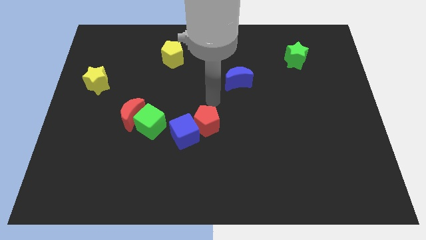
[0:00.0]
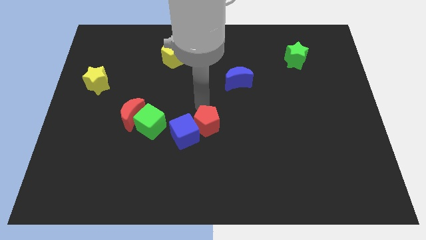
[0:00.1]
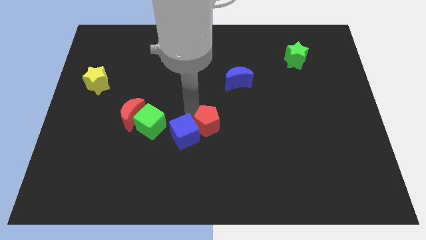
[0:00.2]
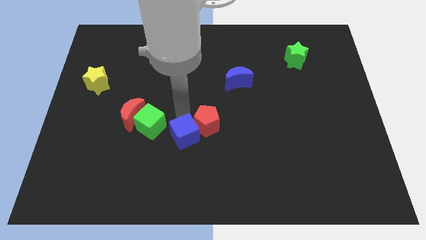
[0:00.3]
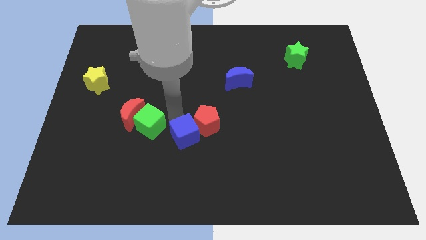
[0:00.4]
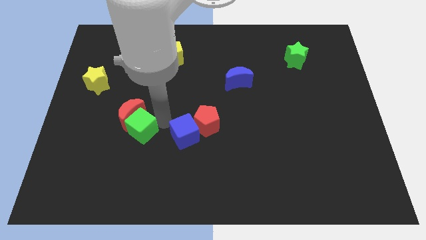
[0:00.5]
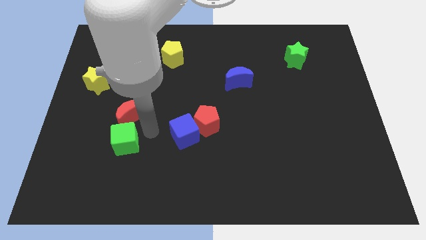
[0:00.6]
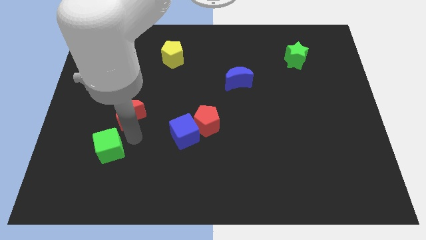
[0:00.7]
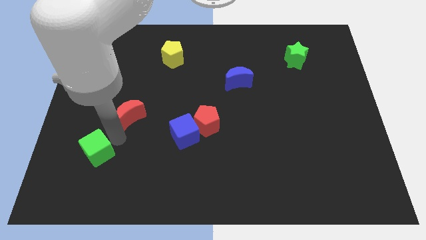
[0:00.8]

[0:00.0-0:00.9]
separate the red moon from the green cube

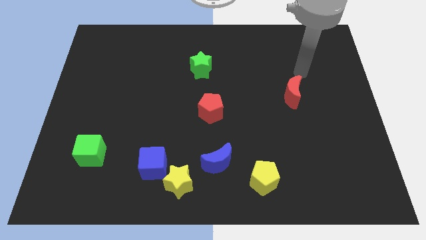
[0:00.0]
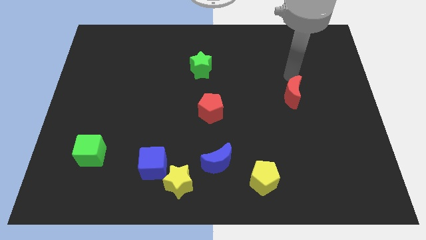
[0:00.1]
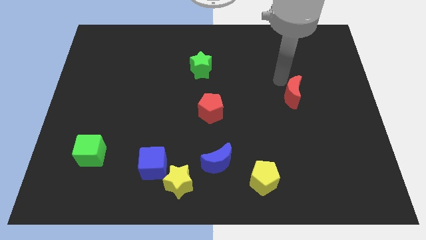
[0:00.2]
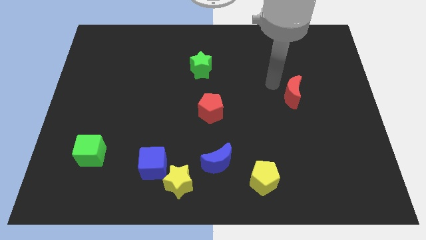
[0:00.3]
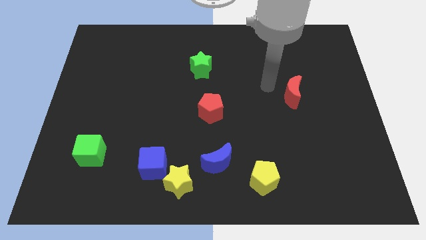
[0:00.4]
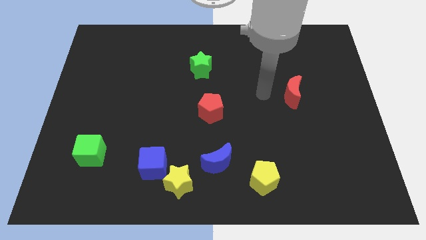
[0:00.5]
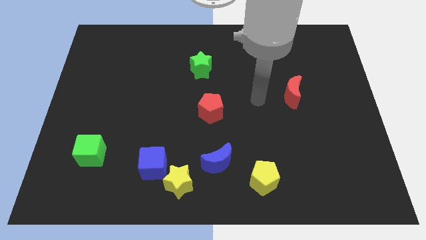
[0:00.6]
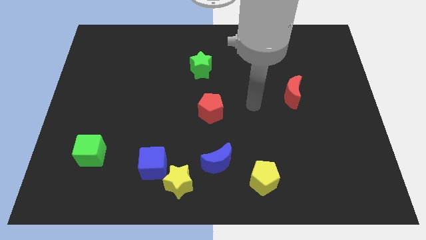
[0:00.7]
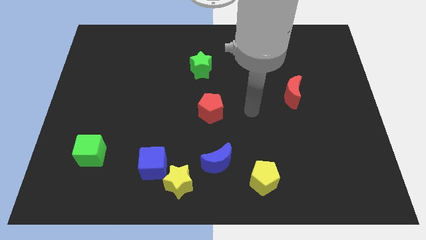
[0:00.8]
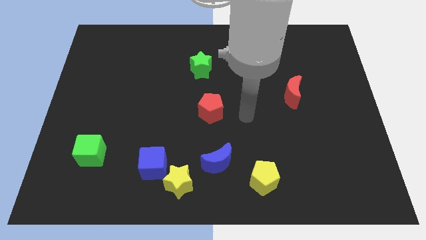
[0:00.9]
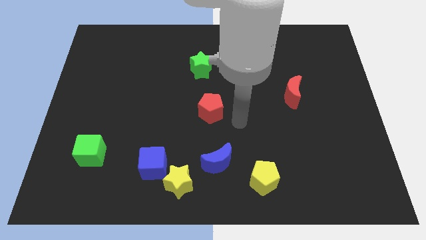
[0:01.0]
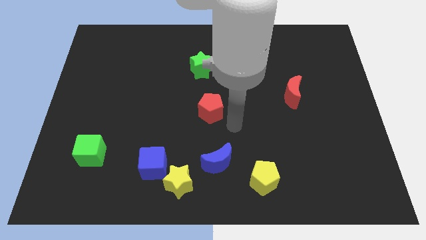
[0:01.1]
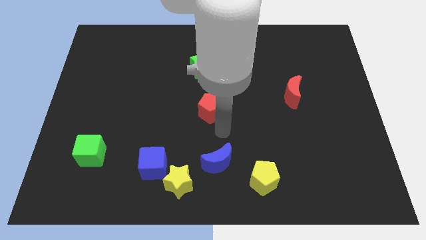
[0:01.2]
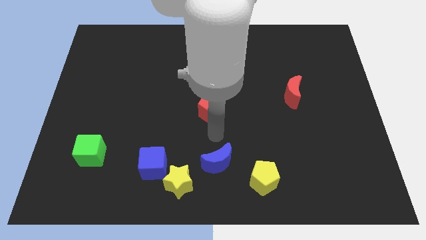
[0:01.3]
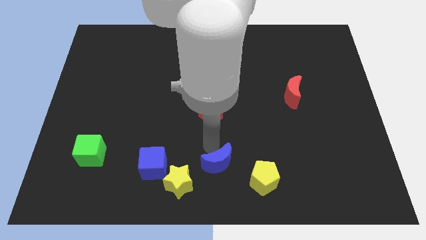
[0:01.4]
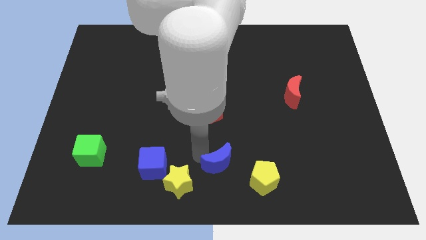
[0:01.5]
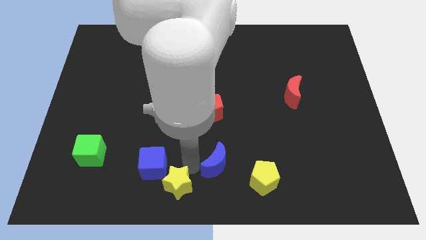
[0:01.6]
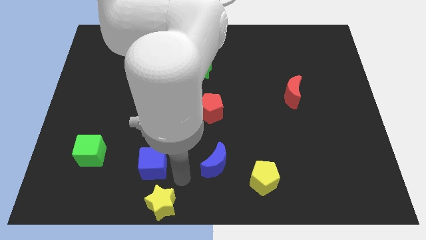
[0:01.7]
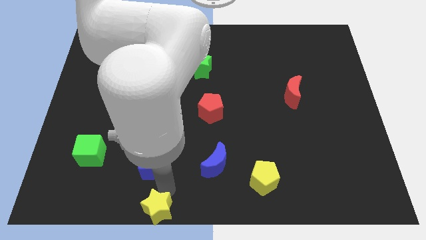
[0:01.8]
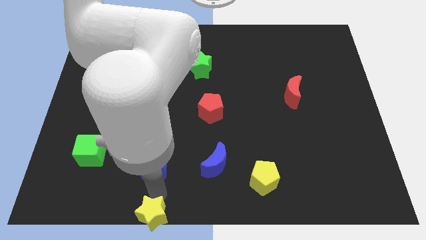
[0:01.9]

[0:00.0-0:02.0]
move the blue cube away from the yellow star

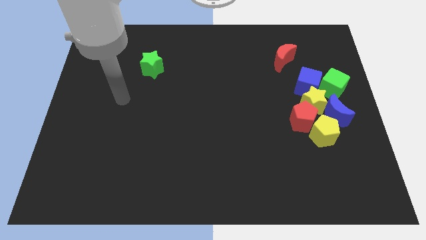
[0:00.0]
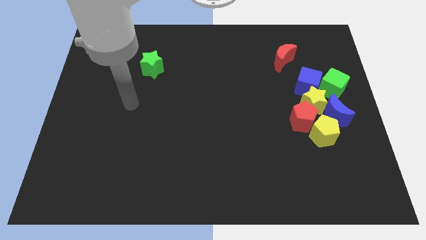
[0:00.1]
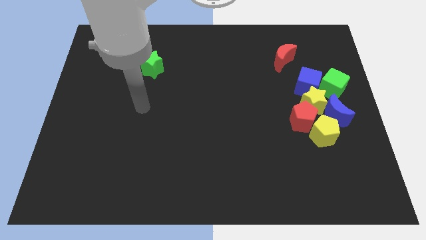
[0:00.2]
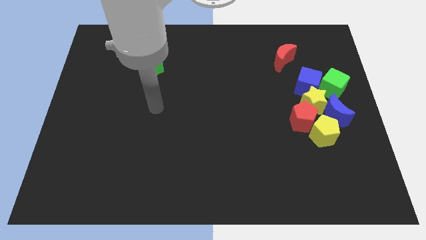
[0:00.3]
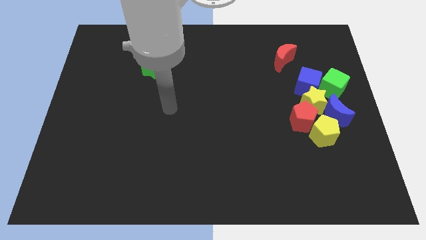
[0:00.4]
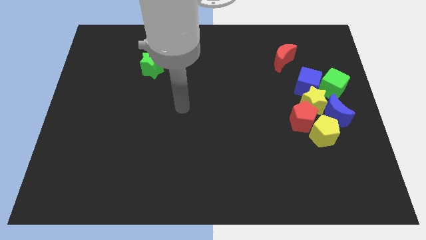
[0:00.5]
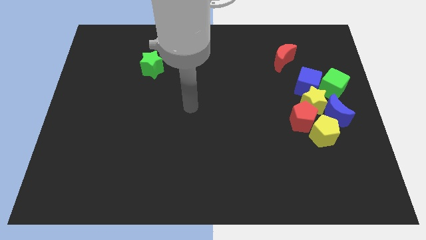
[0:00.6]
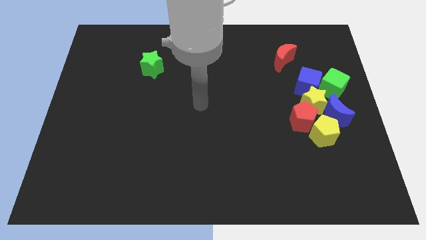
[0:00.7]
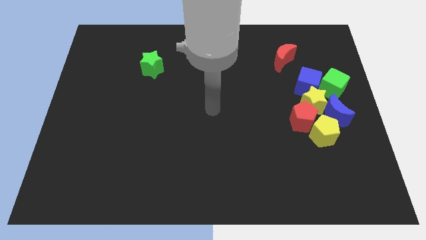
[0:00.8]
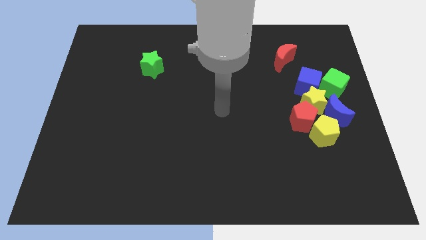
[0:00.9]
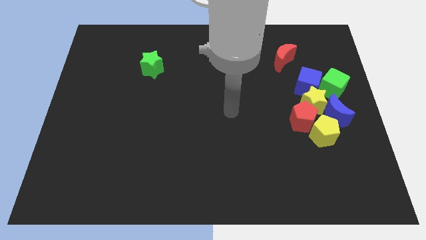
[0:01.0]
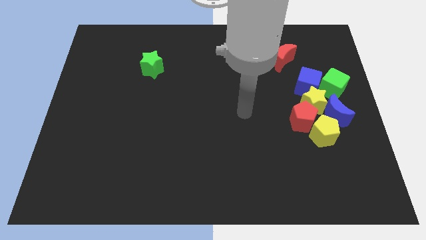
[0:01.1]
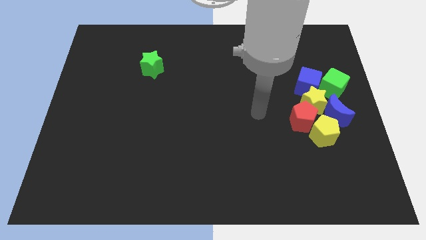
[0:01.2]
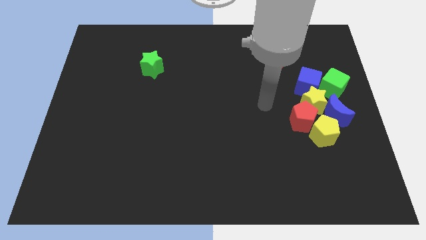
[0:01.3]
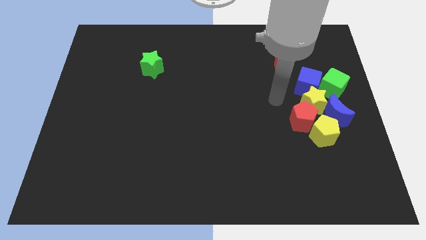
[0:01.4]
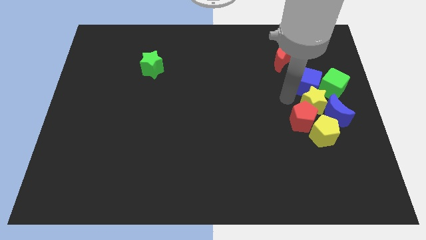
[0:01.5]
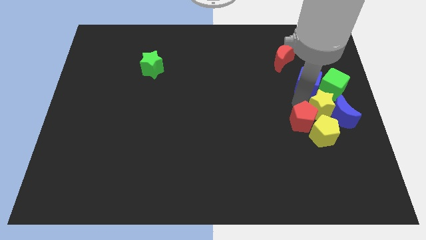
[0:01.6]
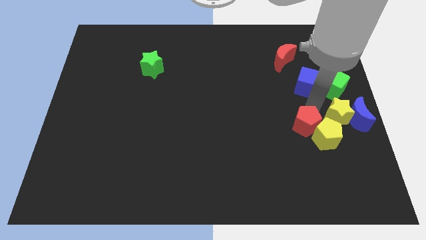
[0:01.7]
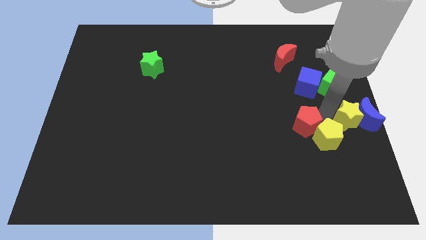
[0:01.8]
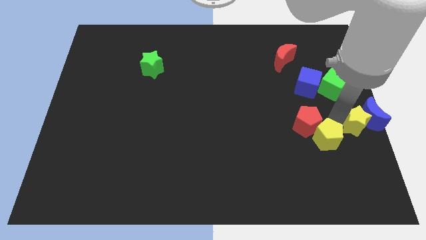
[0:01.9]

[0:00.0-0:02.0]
pull the red pentagon apart from the yellow star, yellow pentagon, and blue moon

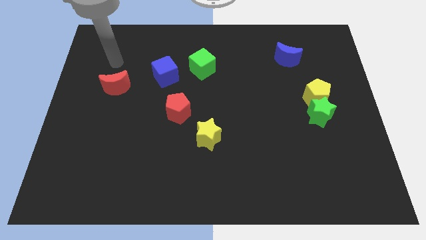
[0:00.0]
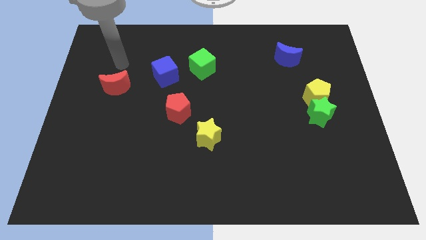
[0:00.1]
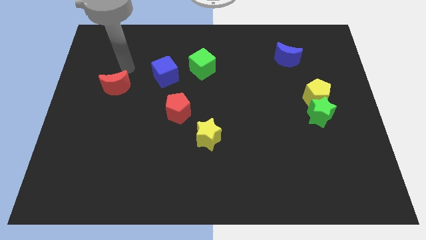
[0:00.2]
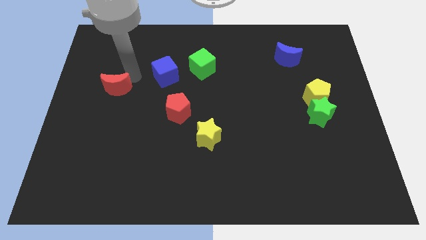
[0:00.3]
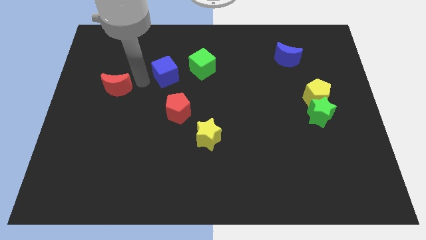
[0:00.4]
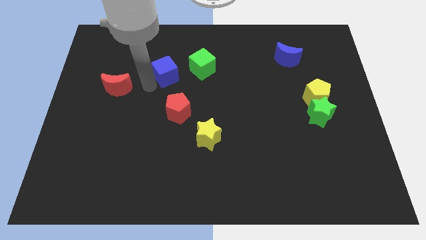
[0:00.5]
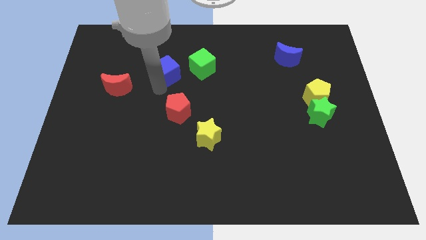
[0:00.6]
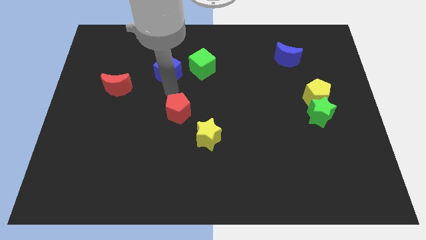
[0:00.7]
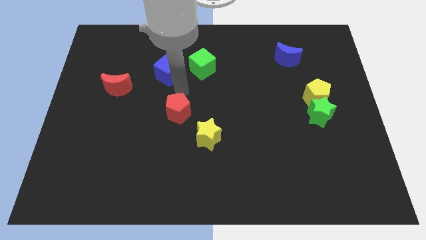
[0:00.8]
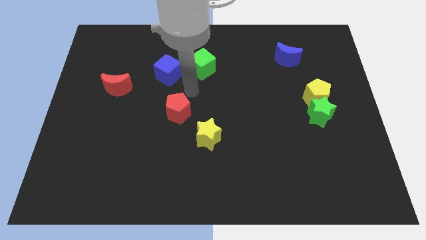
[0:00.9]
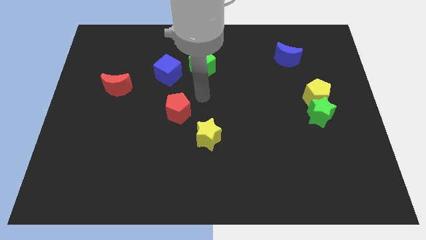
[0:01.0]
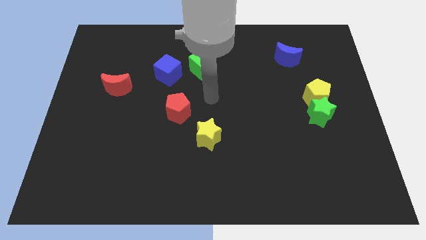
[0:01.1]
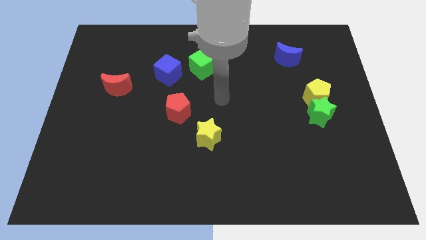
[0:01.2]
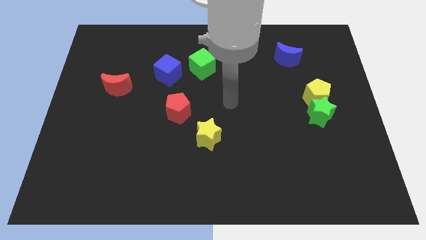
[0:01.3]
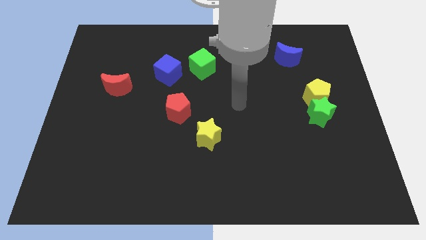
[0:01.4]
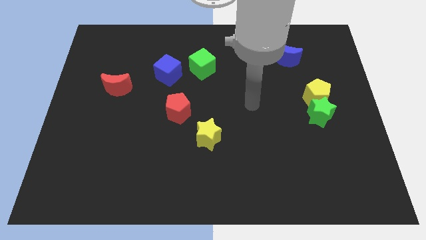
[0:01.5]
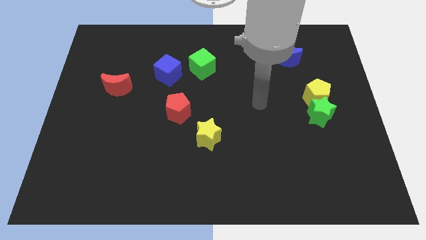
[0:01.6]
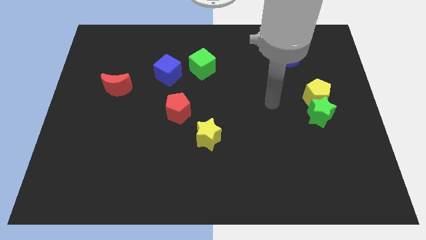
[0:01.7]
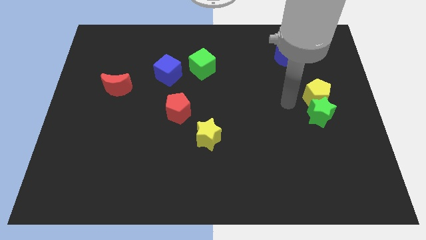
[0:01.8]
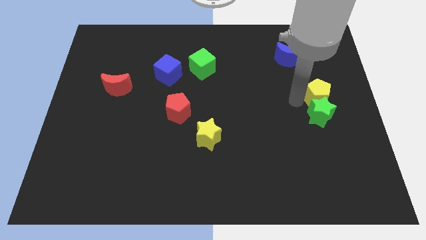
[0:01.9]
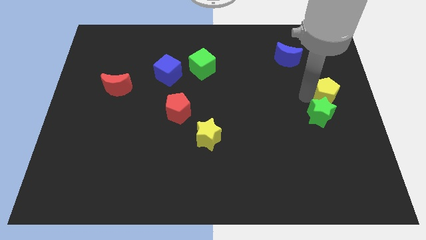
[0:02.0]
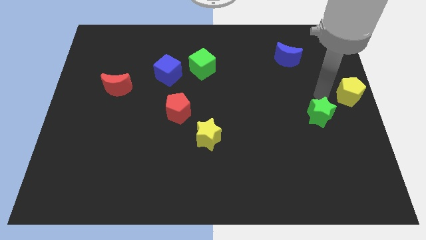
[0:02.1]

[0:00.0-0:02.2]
move the green star away from the yellow pentagon

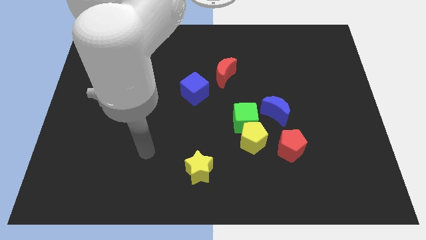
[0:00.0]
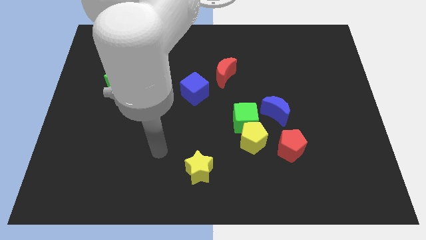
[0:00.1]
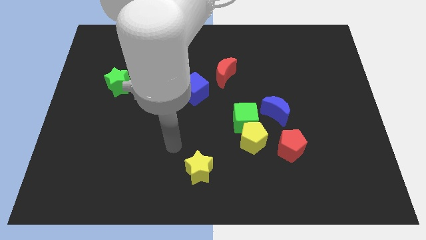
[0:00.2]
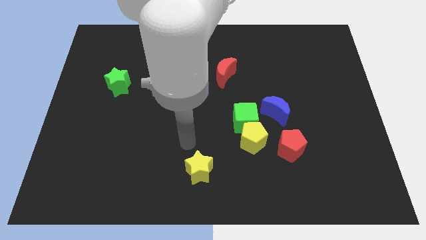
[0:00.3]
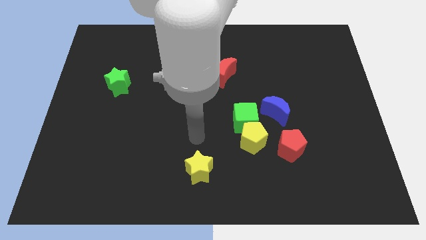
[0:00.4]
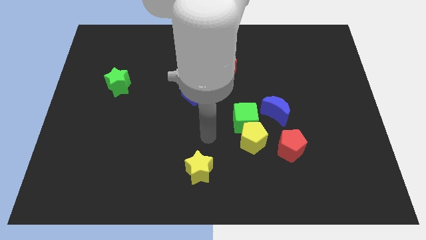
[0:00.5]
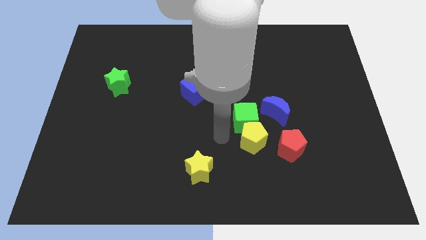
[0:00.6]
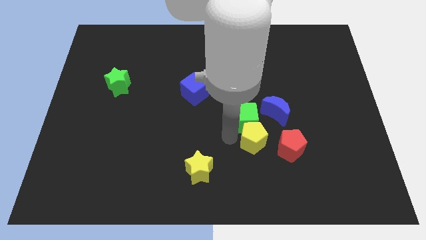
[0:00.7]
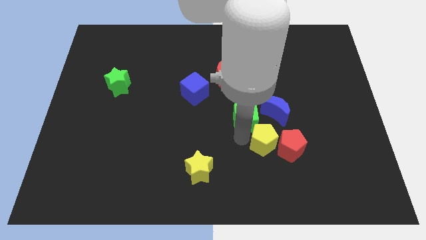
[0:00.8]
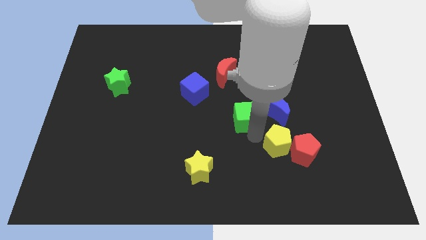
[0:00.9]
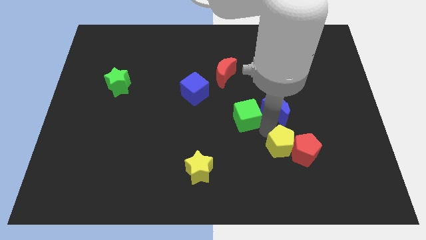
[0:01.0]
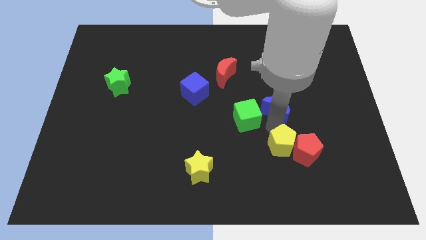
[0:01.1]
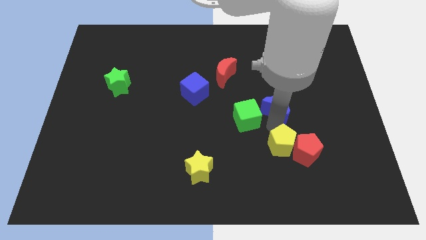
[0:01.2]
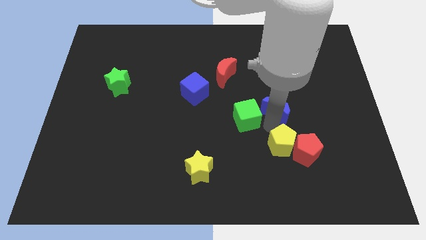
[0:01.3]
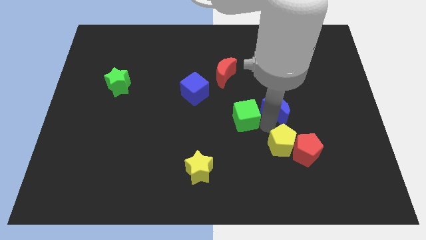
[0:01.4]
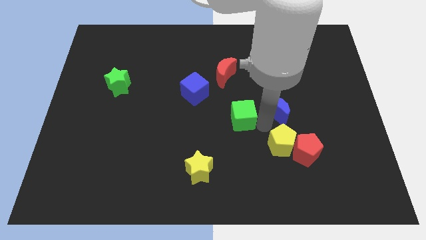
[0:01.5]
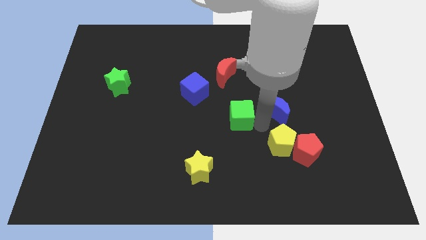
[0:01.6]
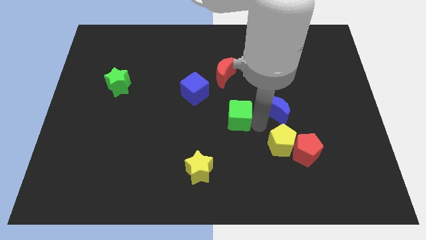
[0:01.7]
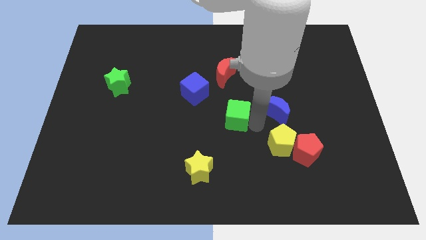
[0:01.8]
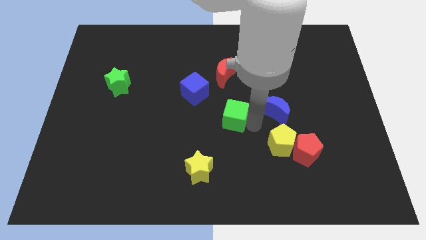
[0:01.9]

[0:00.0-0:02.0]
move the green cube away from the yellow pentagon and blue moon

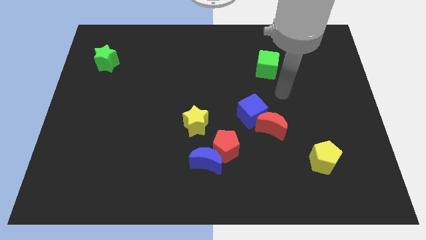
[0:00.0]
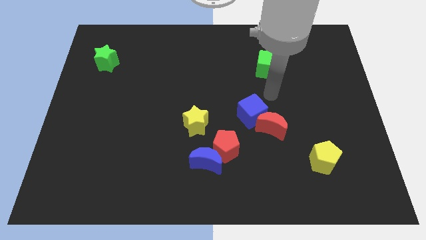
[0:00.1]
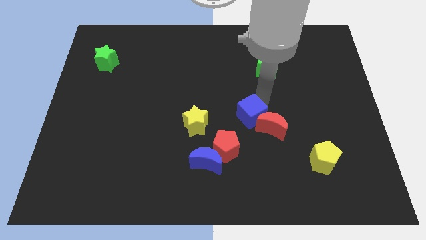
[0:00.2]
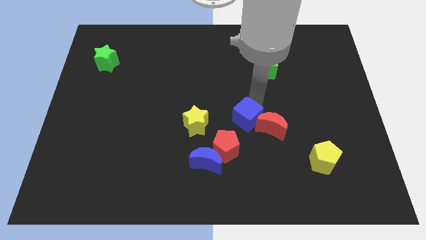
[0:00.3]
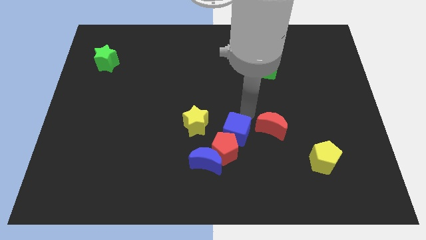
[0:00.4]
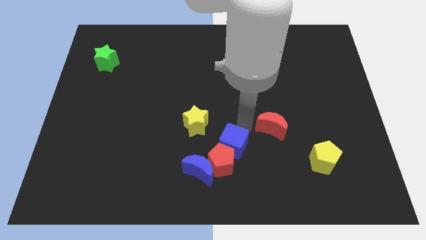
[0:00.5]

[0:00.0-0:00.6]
pull the red moon apart from the blue cube
